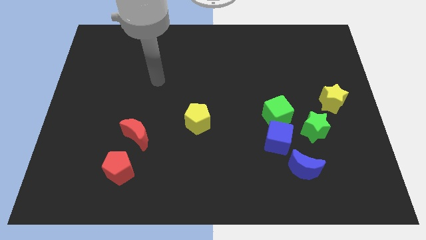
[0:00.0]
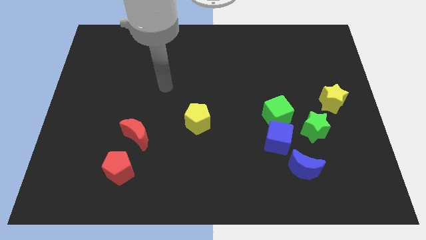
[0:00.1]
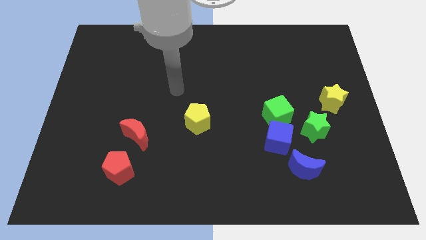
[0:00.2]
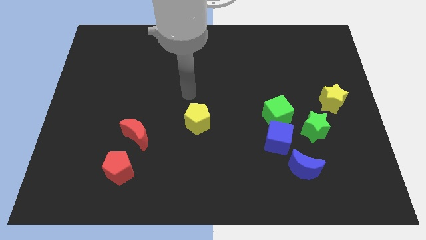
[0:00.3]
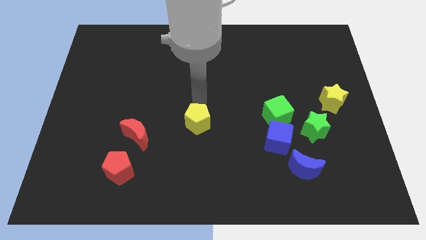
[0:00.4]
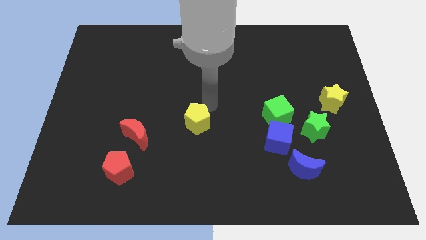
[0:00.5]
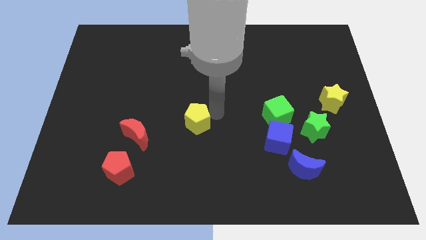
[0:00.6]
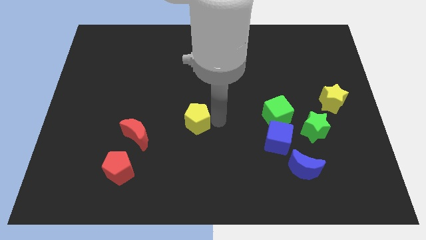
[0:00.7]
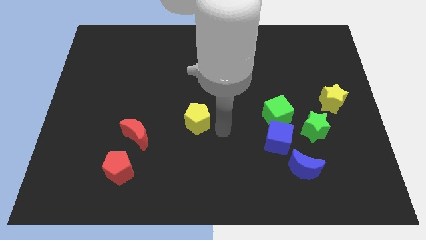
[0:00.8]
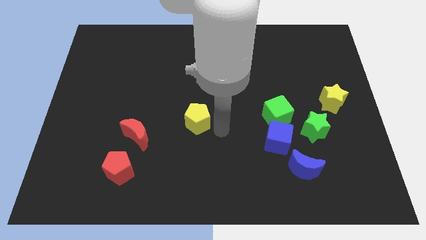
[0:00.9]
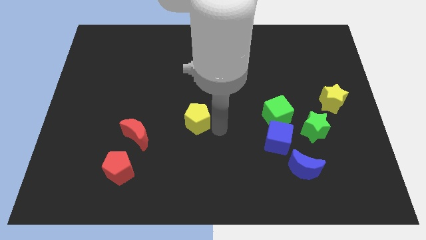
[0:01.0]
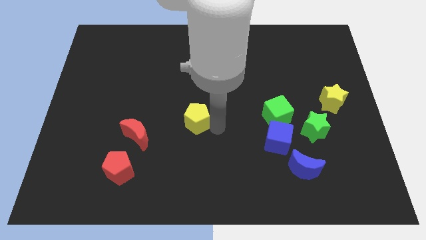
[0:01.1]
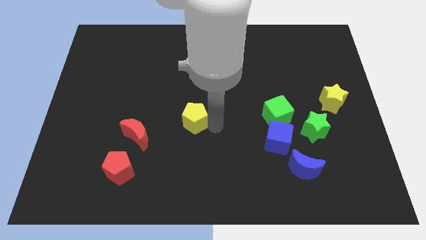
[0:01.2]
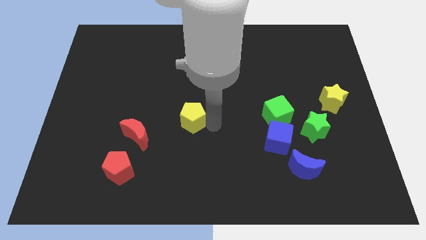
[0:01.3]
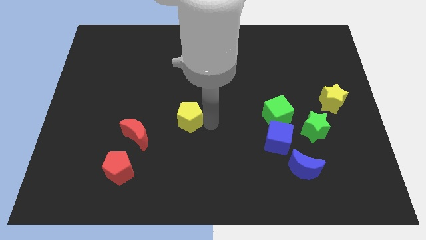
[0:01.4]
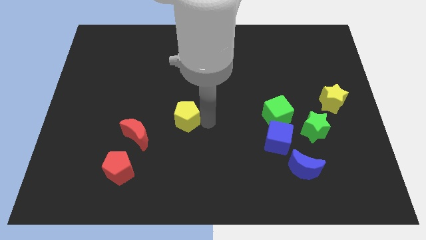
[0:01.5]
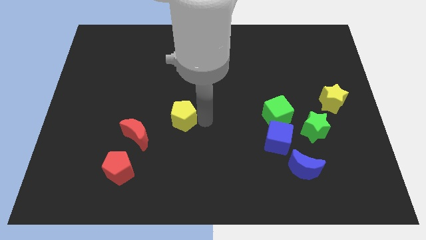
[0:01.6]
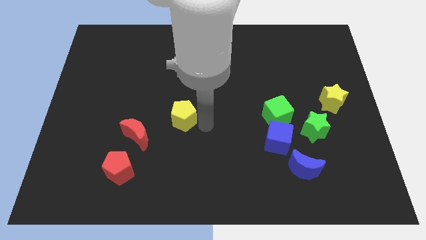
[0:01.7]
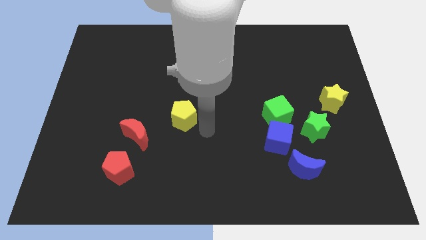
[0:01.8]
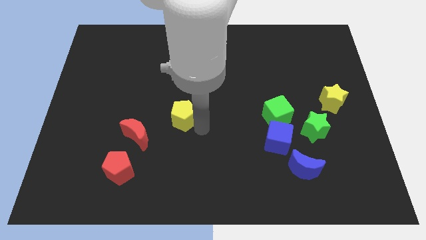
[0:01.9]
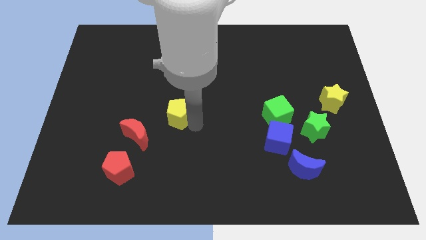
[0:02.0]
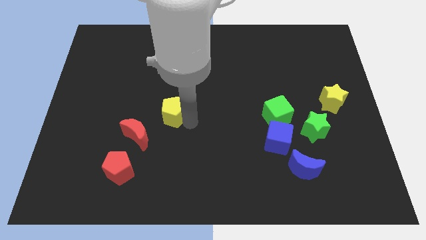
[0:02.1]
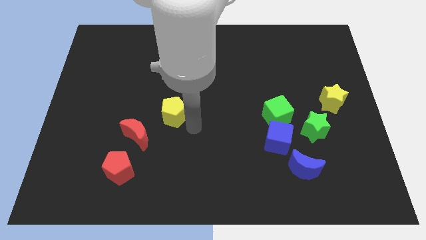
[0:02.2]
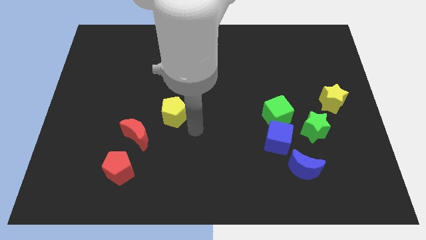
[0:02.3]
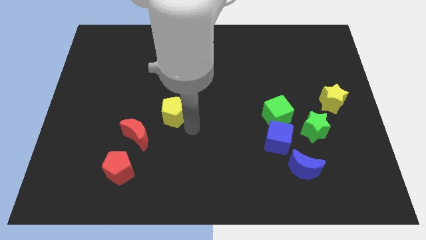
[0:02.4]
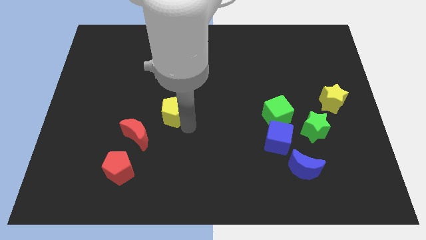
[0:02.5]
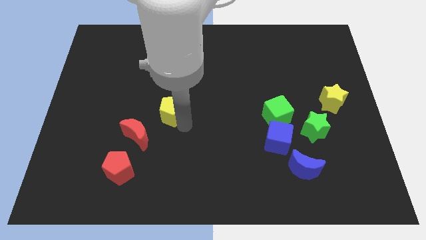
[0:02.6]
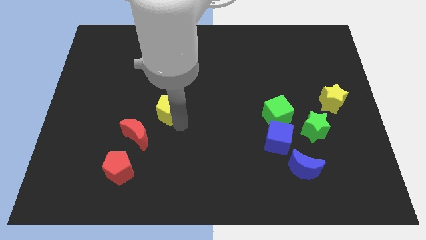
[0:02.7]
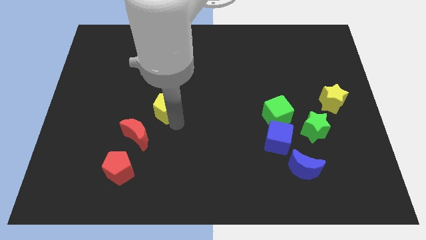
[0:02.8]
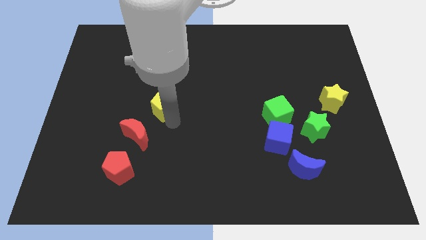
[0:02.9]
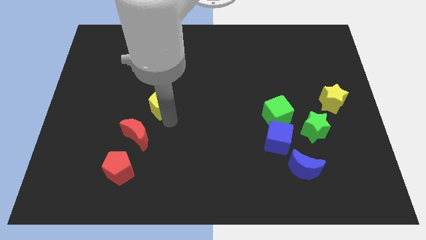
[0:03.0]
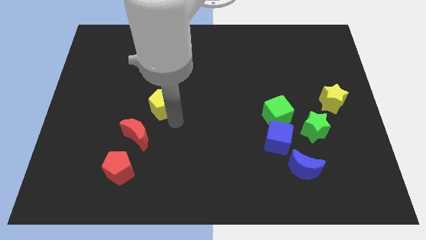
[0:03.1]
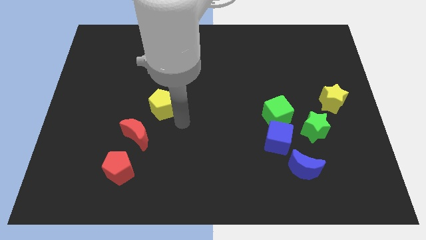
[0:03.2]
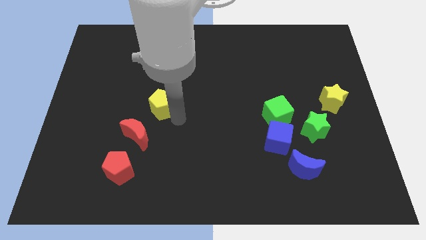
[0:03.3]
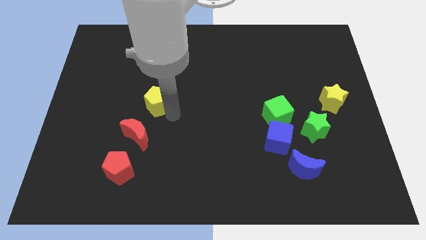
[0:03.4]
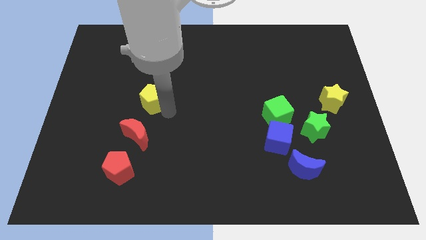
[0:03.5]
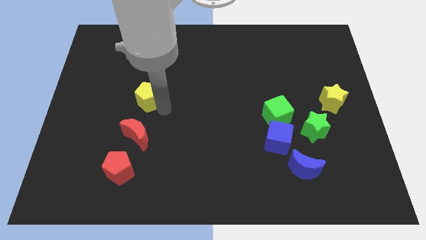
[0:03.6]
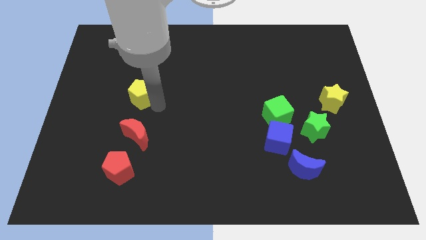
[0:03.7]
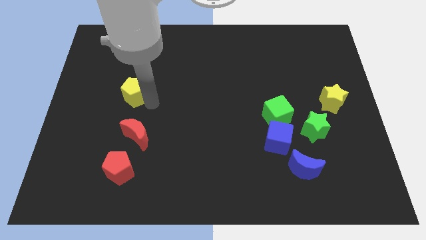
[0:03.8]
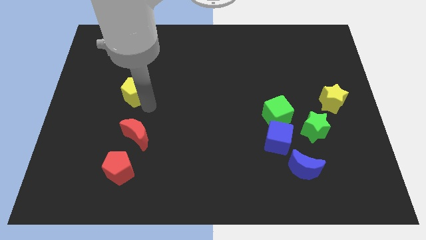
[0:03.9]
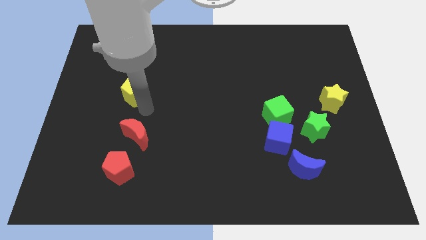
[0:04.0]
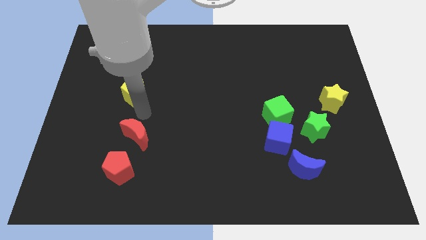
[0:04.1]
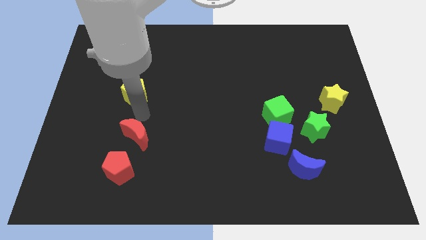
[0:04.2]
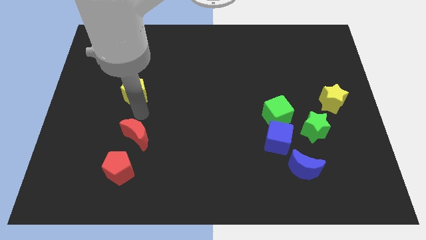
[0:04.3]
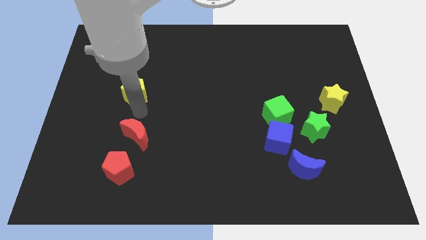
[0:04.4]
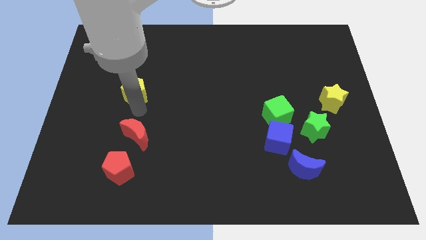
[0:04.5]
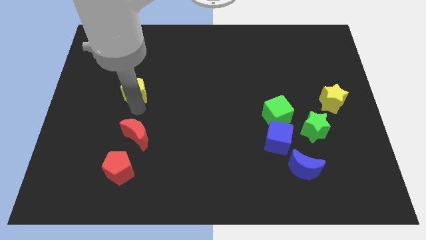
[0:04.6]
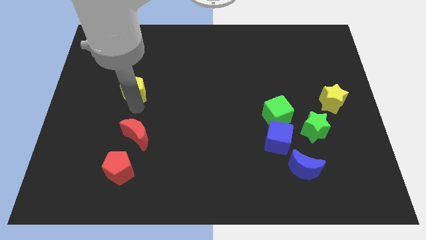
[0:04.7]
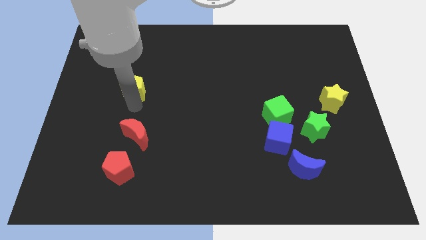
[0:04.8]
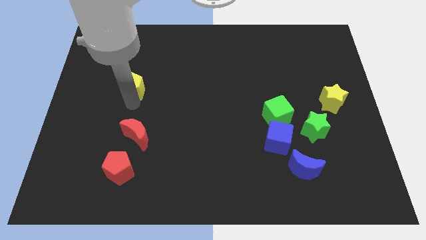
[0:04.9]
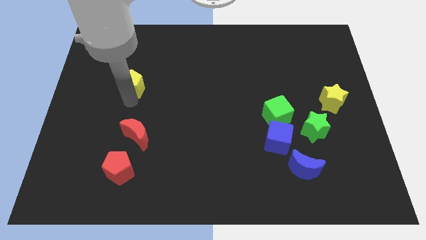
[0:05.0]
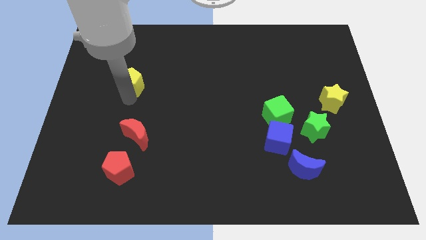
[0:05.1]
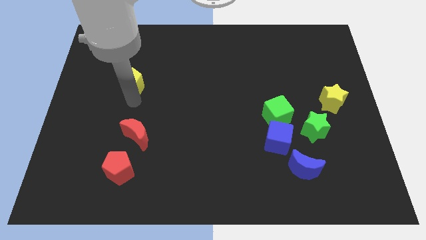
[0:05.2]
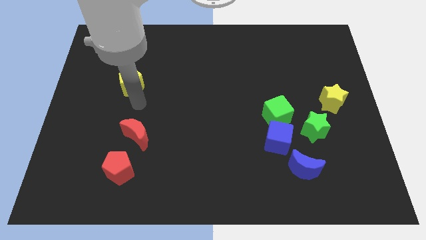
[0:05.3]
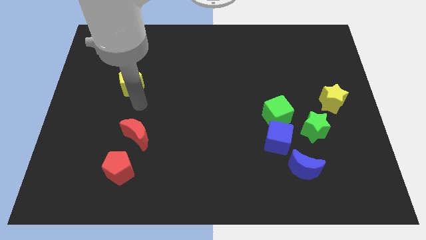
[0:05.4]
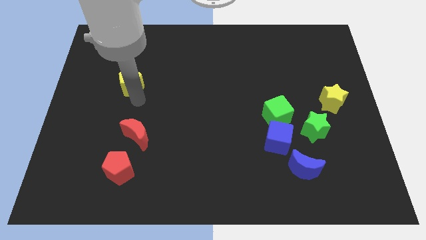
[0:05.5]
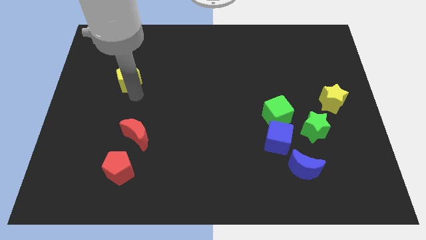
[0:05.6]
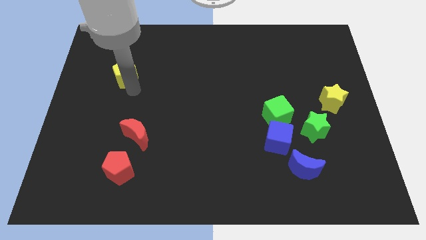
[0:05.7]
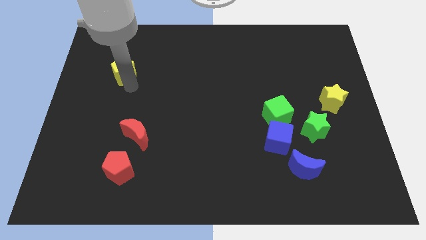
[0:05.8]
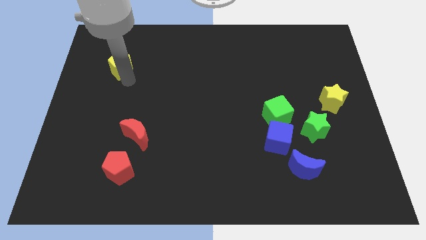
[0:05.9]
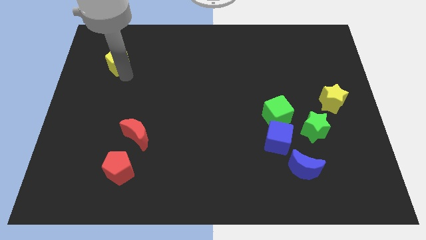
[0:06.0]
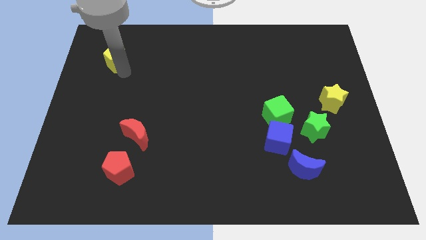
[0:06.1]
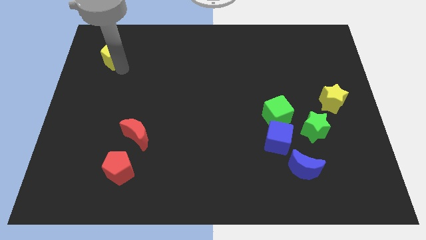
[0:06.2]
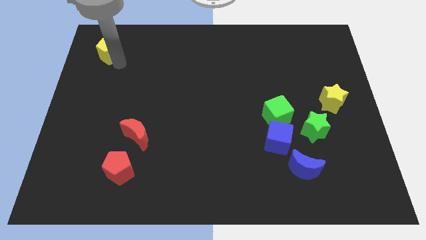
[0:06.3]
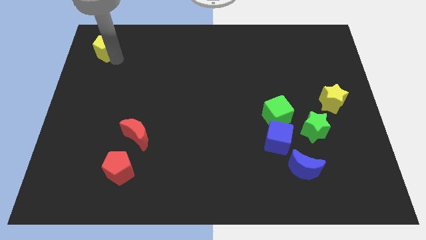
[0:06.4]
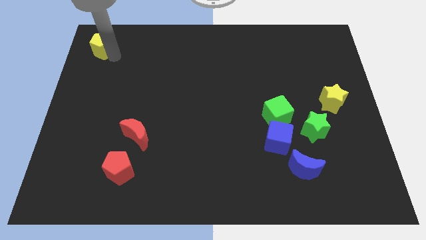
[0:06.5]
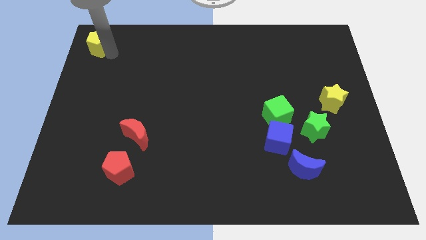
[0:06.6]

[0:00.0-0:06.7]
push the yellow pentagon to the top left

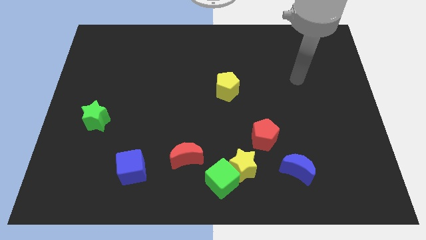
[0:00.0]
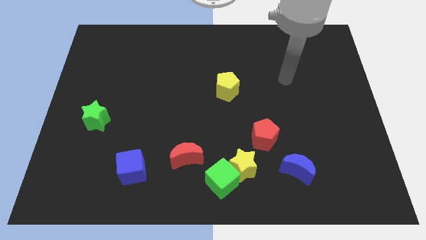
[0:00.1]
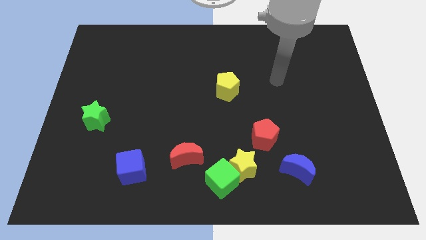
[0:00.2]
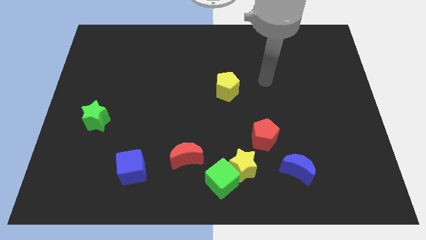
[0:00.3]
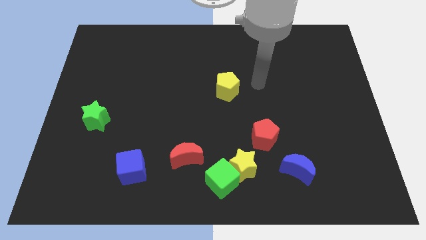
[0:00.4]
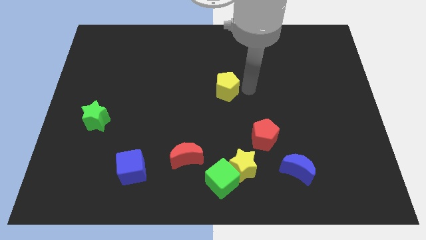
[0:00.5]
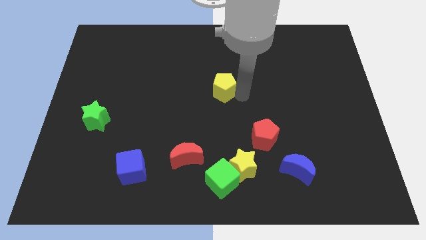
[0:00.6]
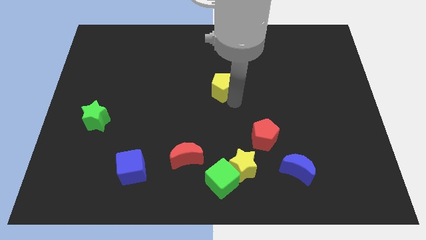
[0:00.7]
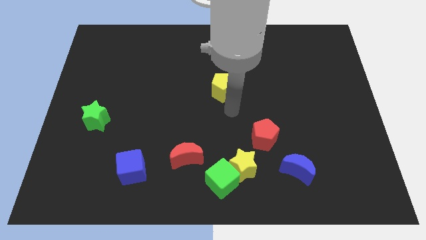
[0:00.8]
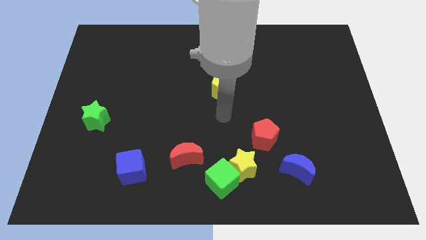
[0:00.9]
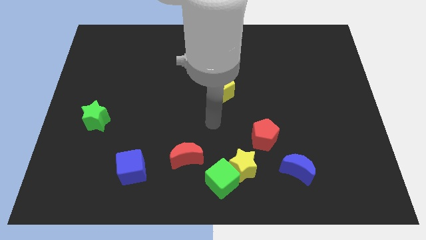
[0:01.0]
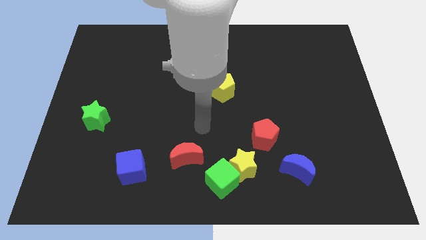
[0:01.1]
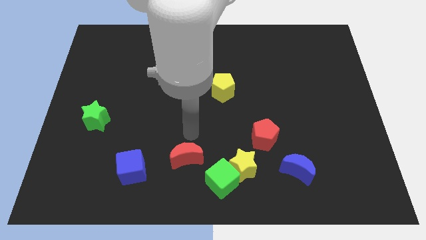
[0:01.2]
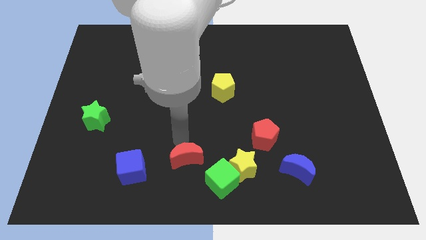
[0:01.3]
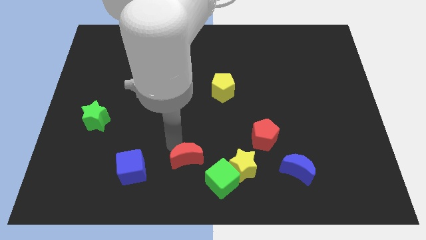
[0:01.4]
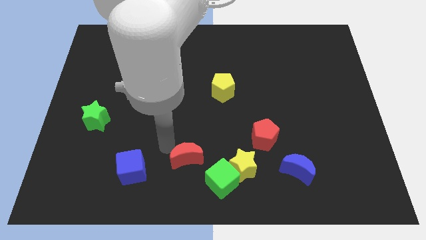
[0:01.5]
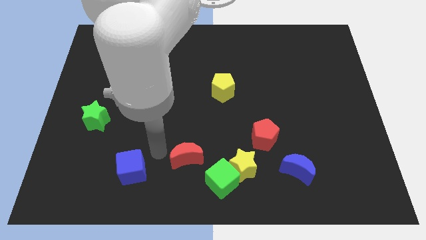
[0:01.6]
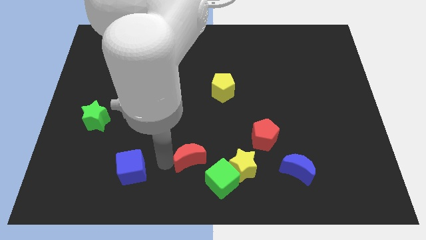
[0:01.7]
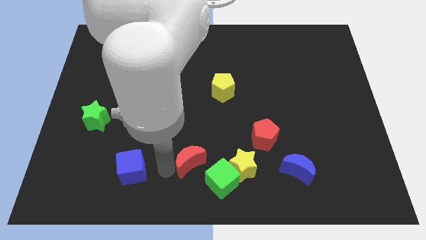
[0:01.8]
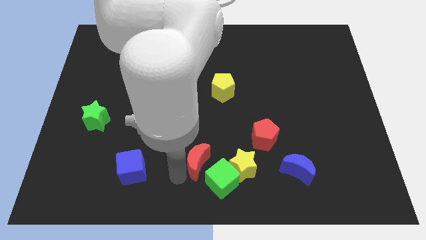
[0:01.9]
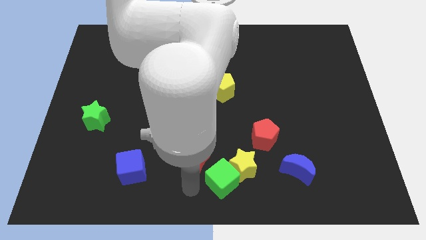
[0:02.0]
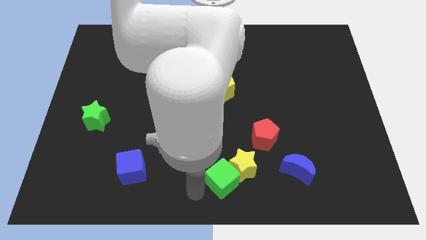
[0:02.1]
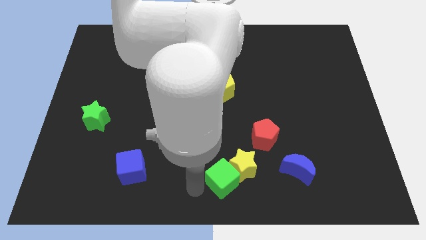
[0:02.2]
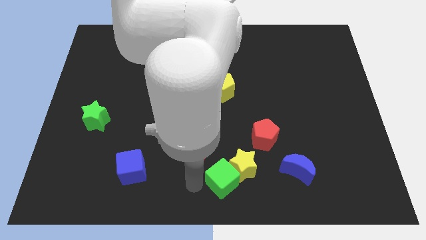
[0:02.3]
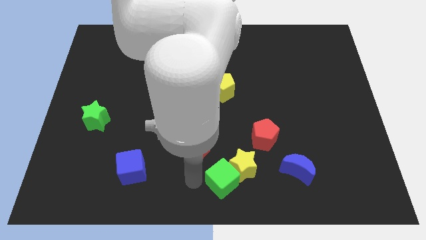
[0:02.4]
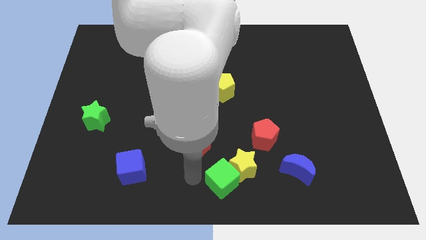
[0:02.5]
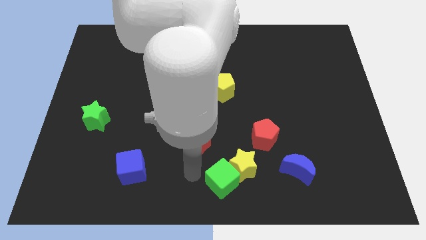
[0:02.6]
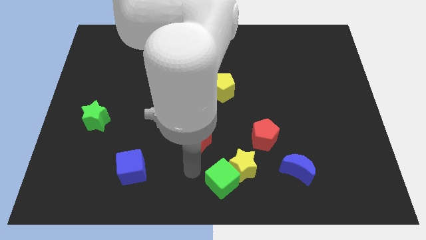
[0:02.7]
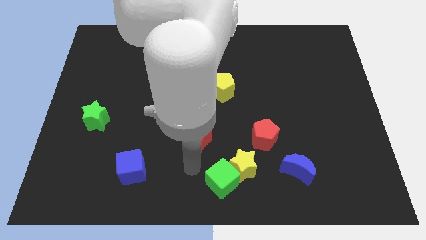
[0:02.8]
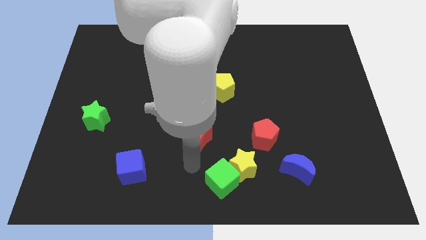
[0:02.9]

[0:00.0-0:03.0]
push the red moon to the center
